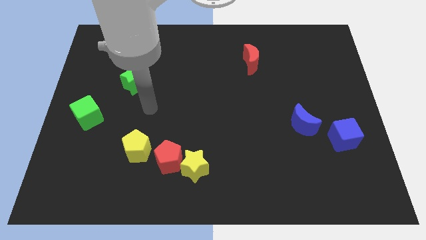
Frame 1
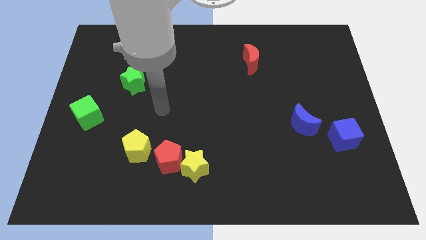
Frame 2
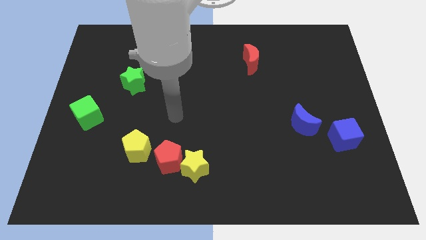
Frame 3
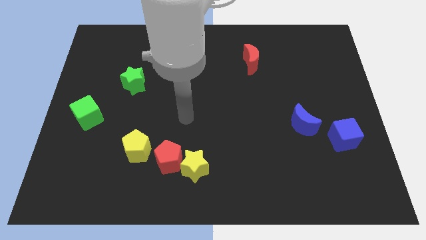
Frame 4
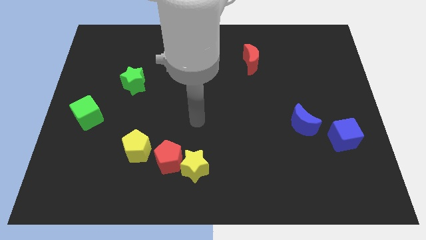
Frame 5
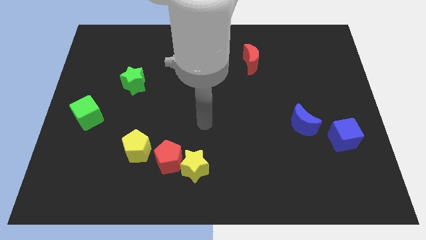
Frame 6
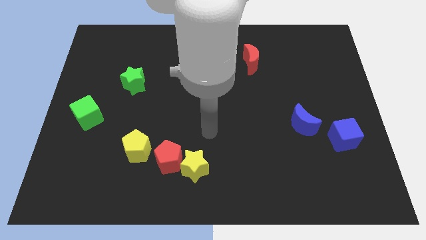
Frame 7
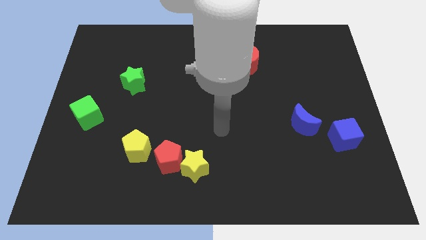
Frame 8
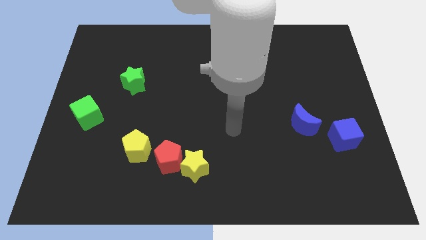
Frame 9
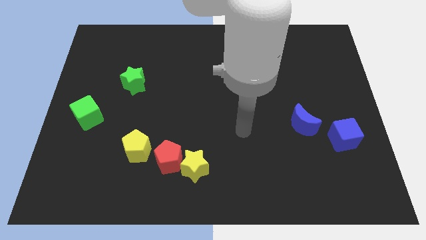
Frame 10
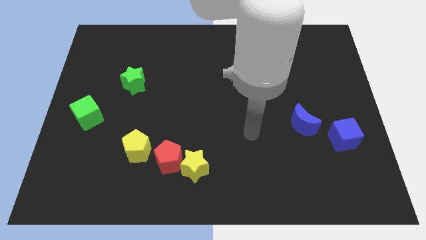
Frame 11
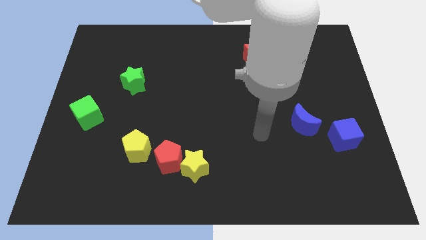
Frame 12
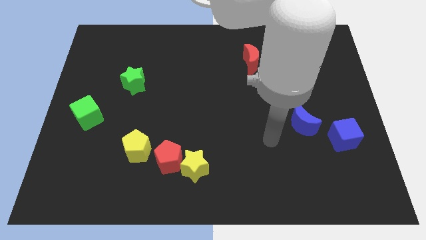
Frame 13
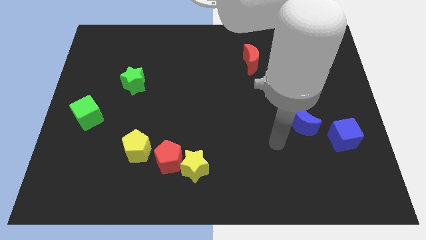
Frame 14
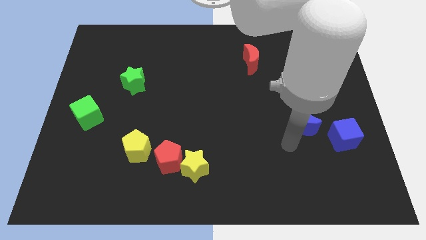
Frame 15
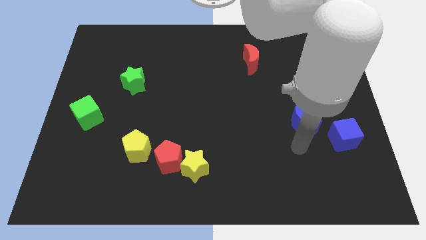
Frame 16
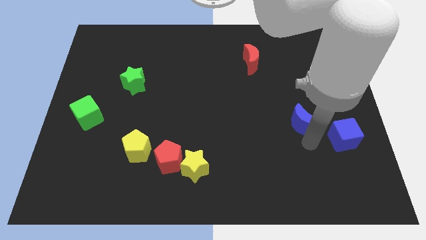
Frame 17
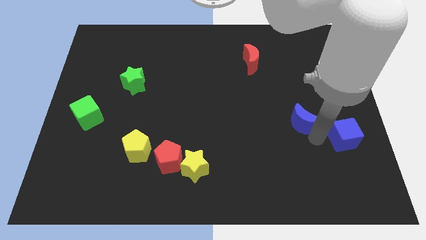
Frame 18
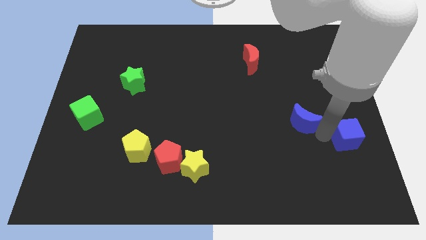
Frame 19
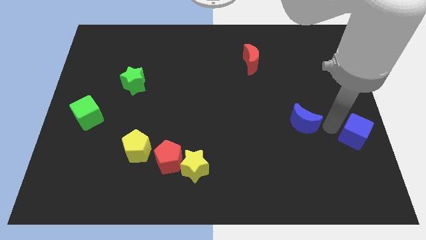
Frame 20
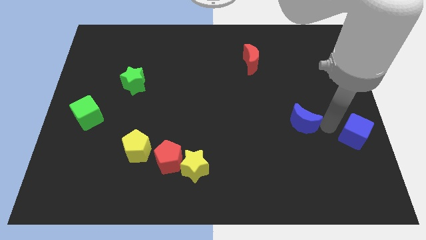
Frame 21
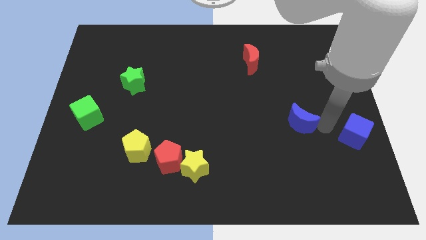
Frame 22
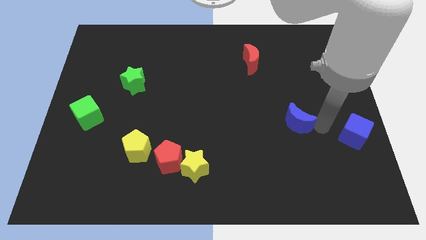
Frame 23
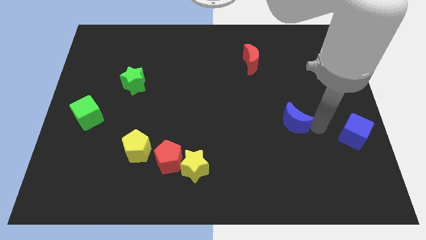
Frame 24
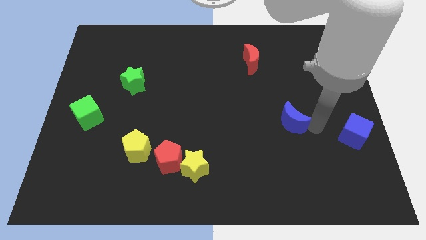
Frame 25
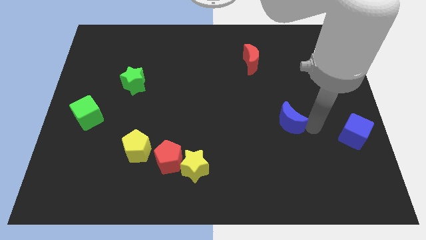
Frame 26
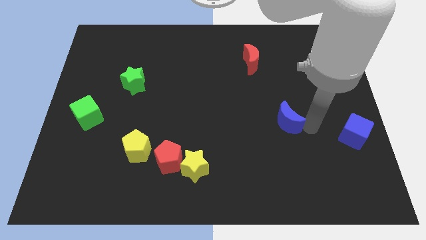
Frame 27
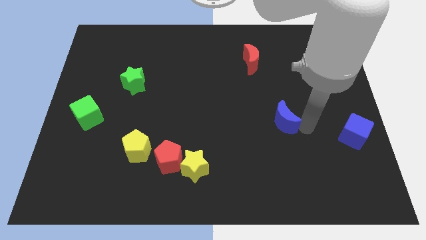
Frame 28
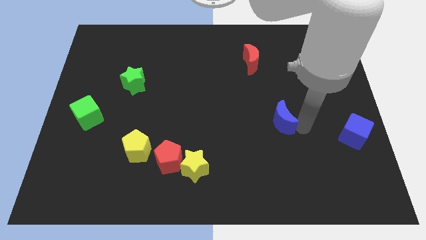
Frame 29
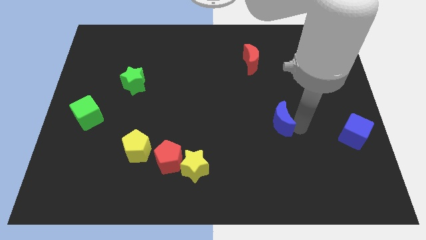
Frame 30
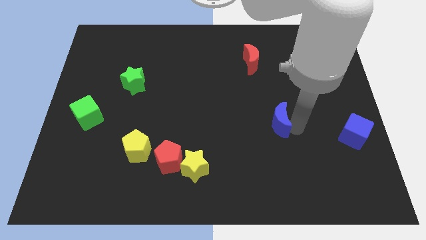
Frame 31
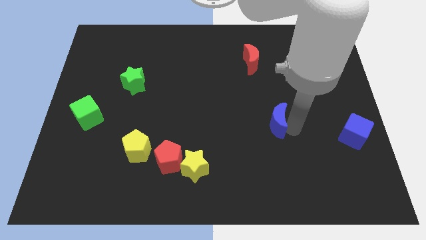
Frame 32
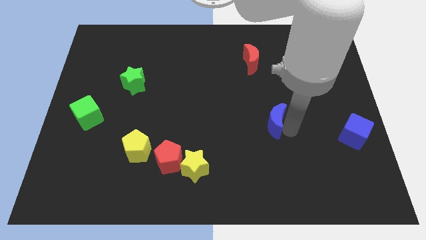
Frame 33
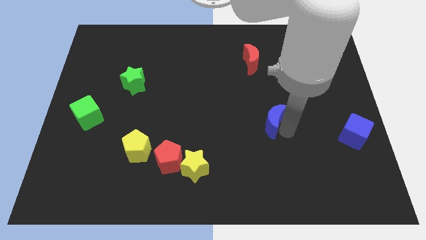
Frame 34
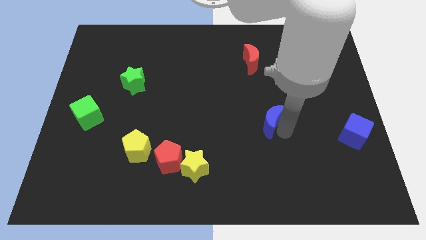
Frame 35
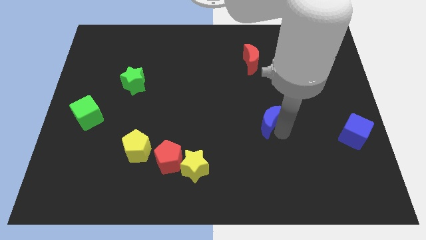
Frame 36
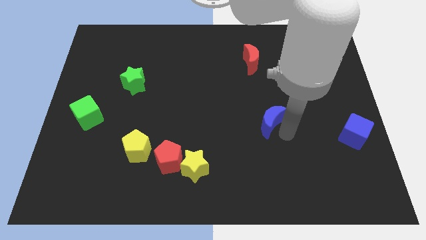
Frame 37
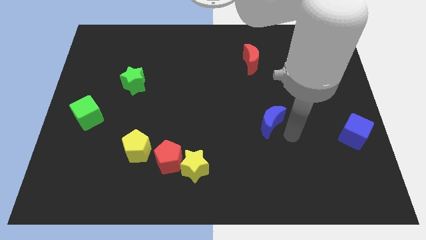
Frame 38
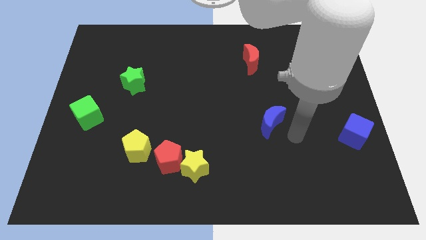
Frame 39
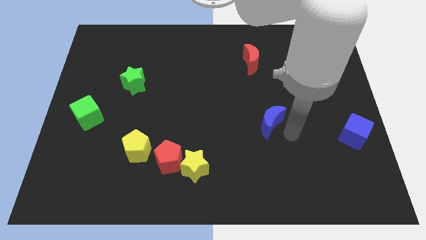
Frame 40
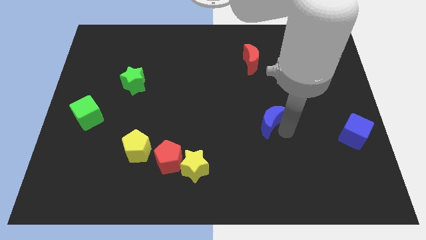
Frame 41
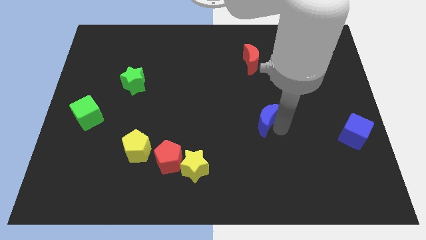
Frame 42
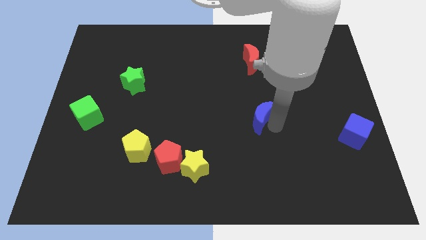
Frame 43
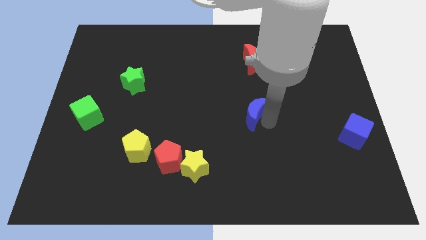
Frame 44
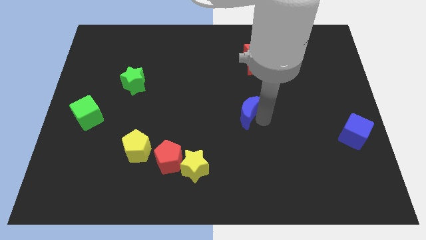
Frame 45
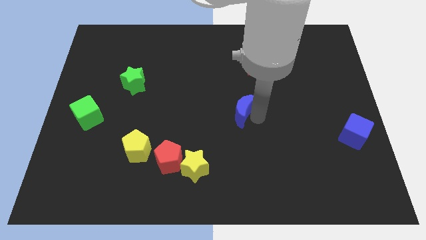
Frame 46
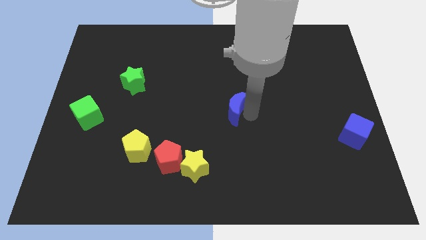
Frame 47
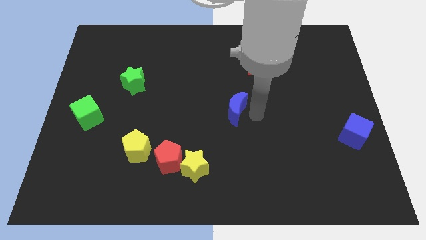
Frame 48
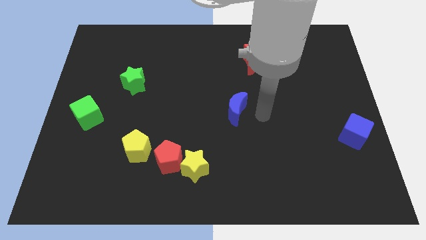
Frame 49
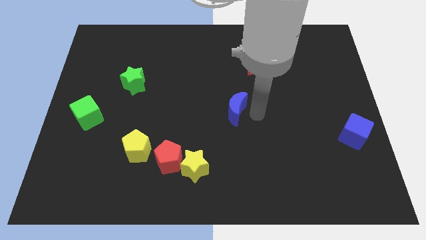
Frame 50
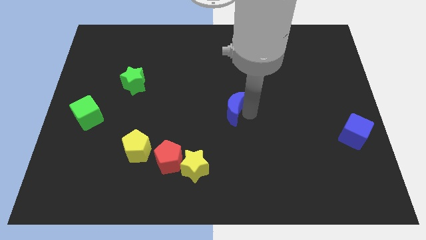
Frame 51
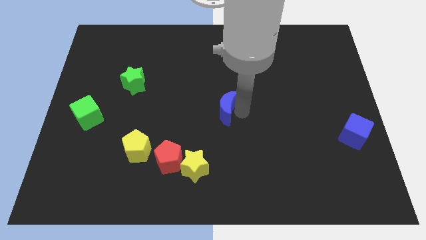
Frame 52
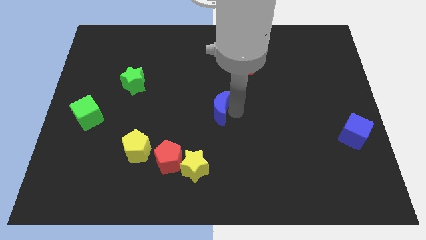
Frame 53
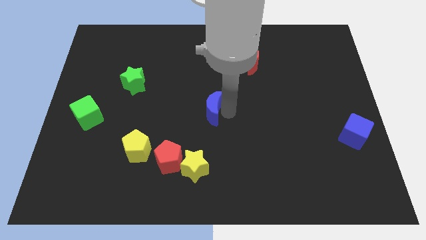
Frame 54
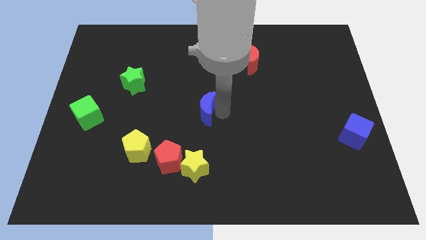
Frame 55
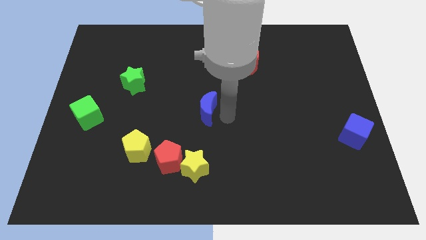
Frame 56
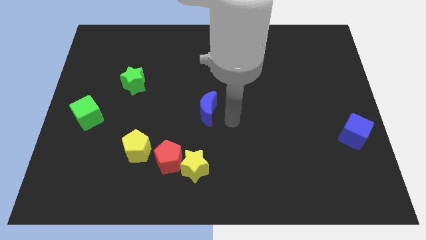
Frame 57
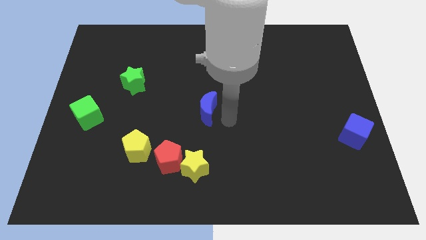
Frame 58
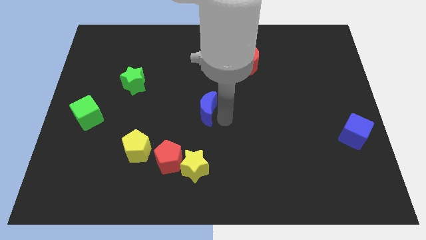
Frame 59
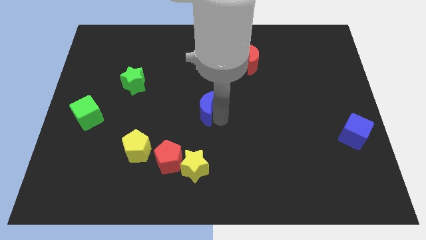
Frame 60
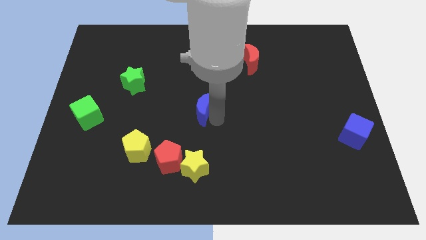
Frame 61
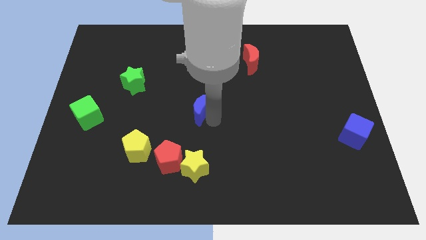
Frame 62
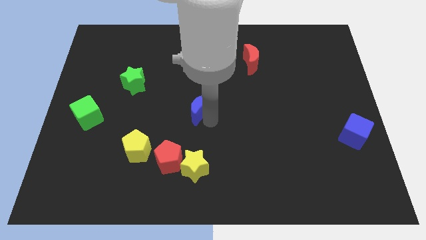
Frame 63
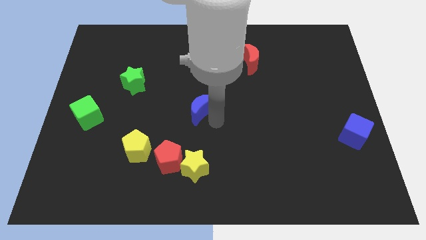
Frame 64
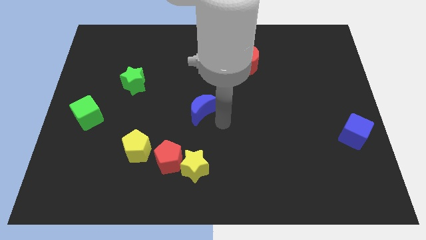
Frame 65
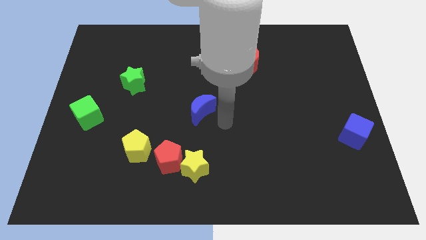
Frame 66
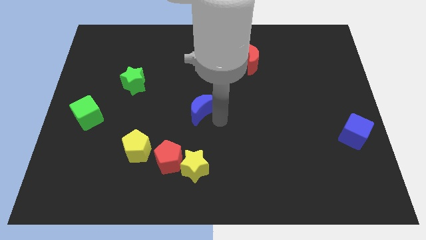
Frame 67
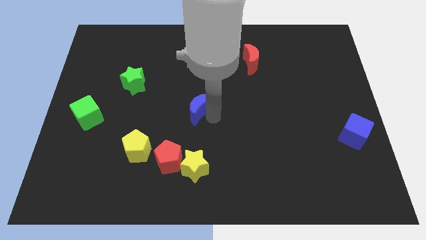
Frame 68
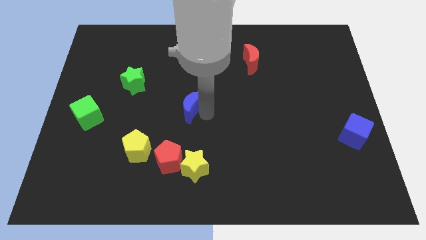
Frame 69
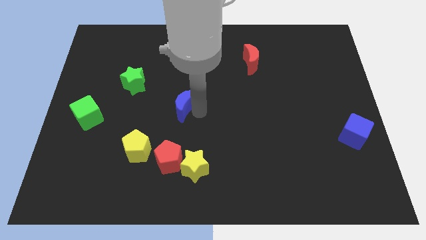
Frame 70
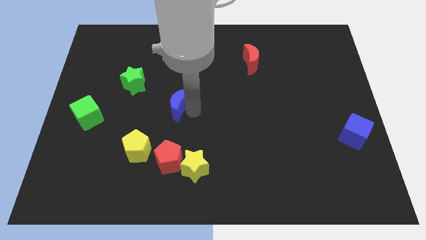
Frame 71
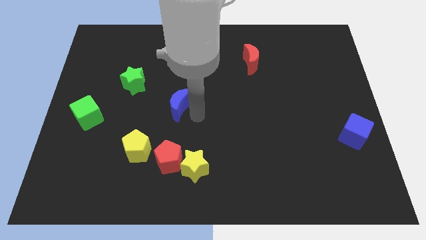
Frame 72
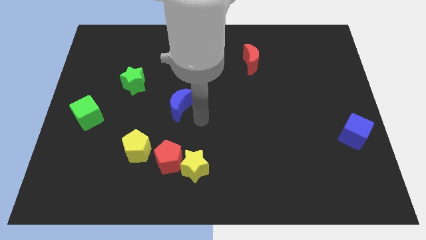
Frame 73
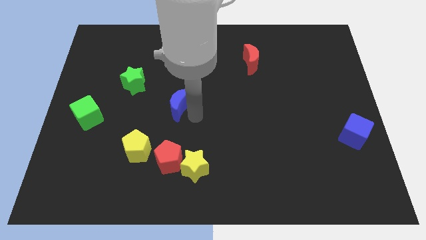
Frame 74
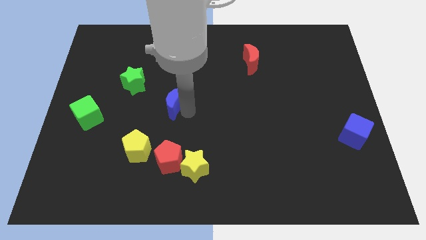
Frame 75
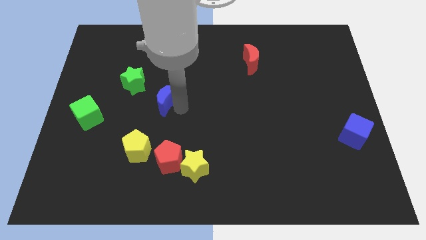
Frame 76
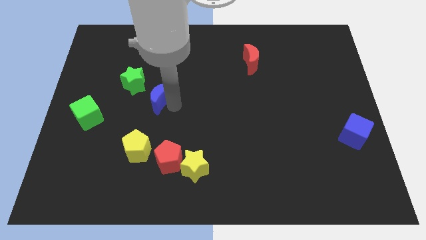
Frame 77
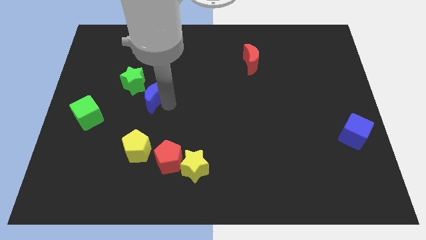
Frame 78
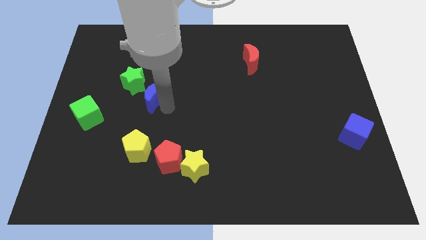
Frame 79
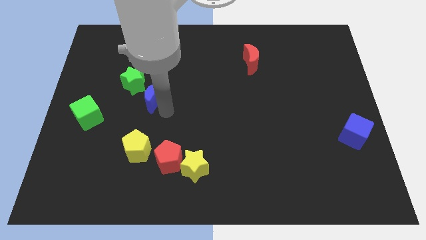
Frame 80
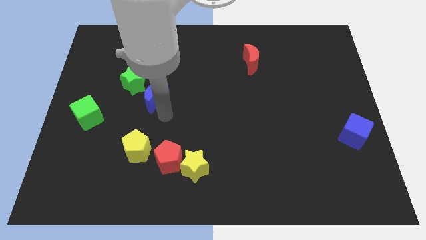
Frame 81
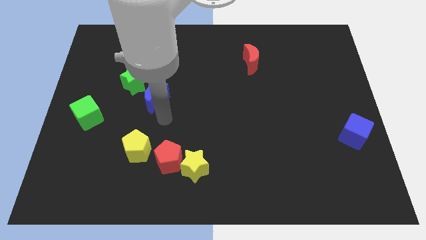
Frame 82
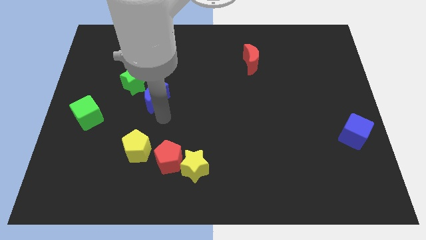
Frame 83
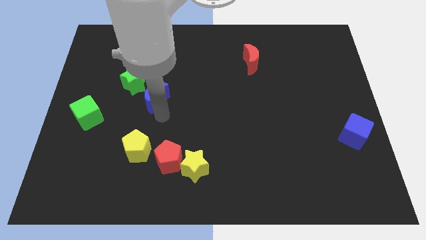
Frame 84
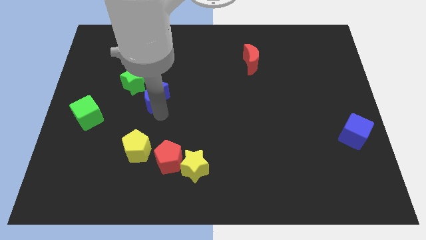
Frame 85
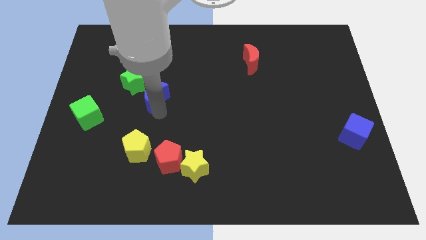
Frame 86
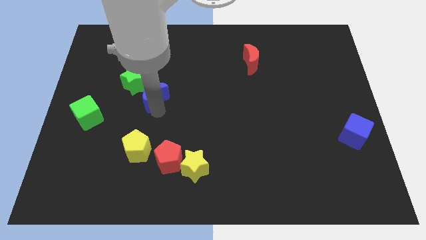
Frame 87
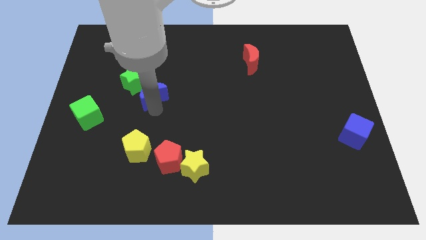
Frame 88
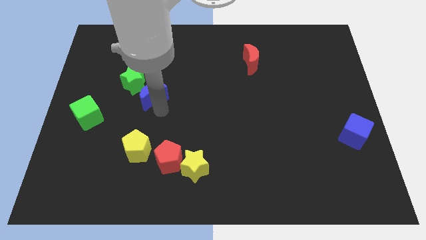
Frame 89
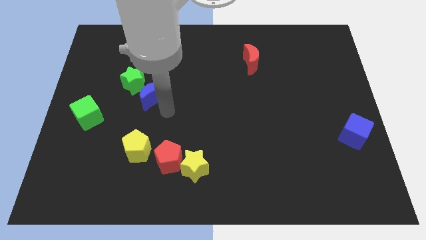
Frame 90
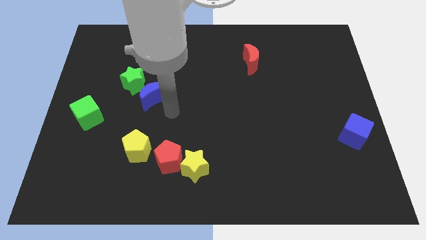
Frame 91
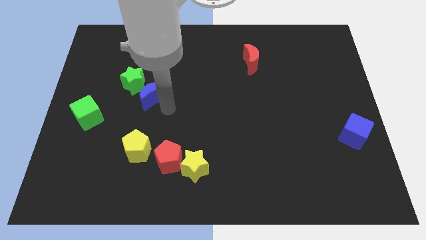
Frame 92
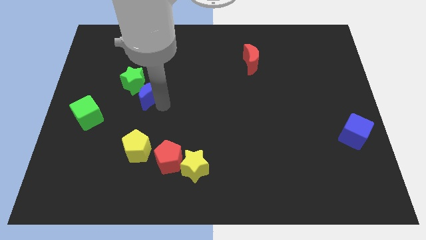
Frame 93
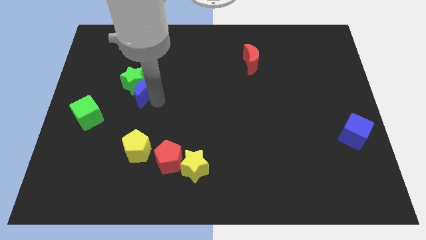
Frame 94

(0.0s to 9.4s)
push the blue moon to the green star
